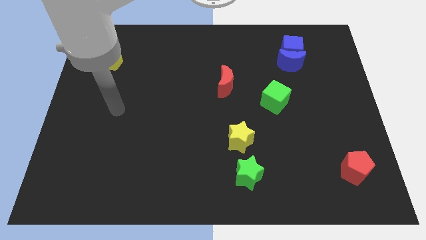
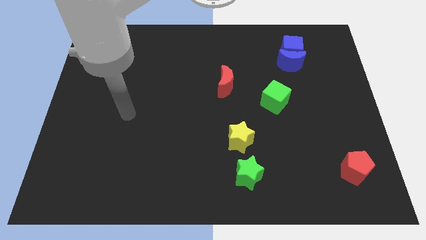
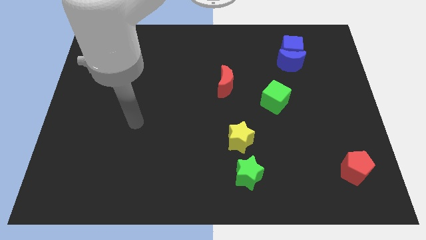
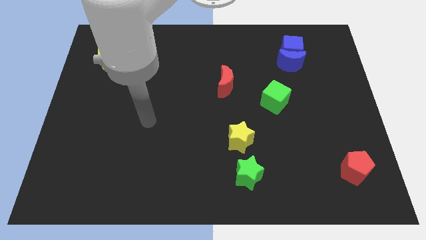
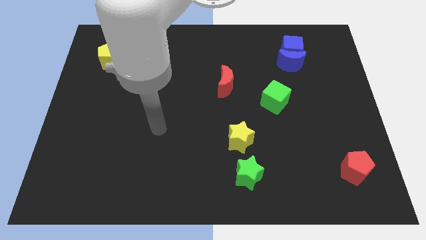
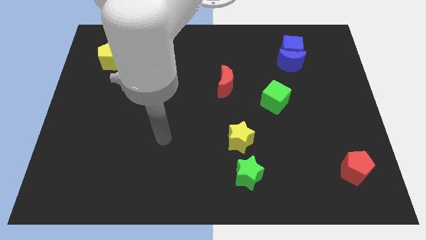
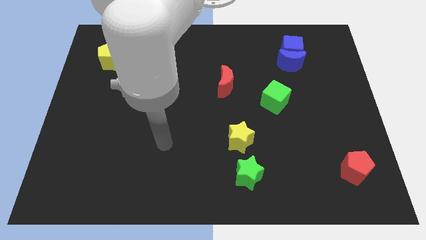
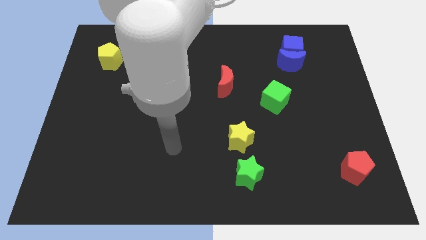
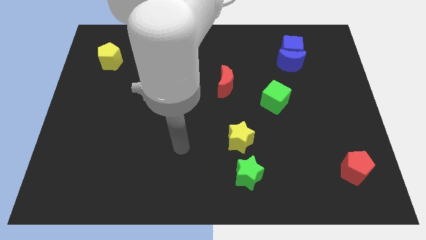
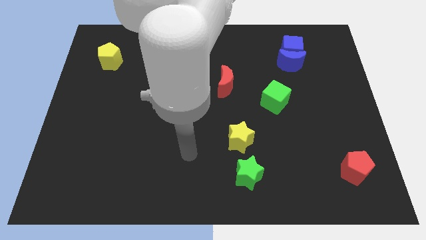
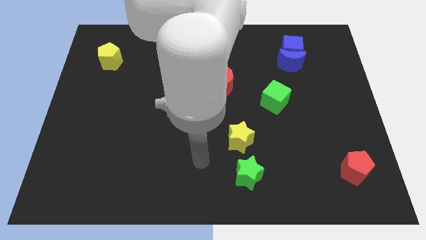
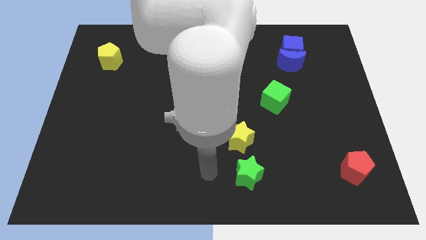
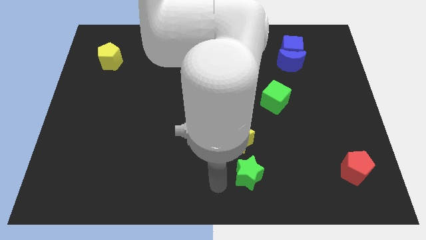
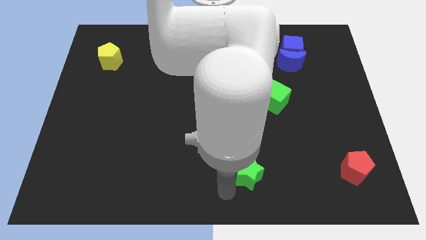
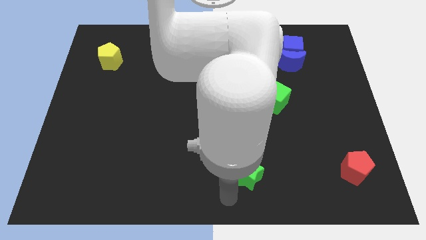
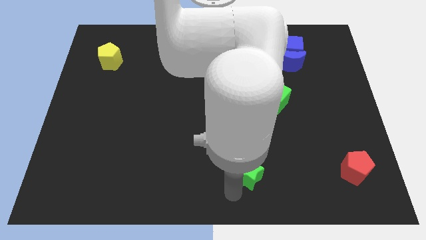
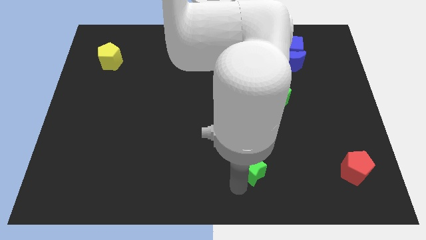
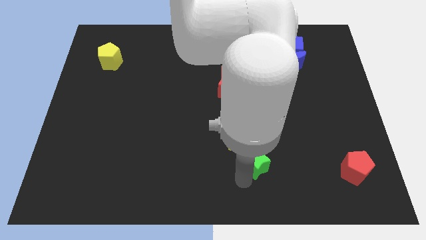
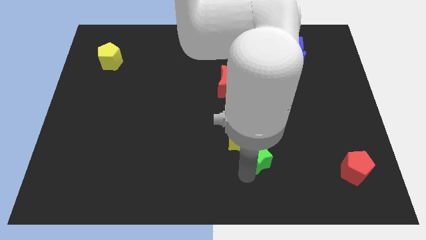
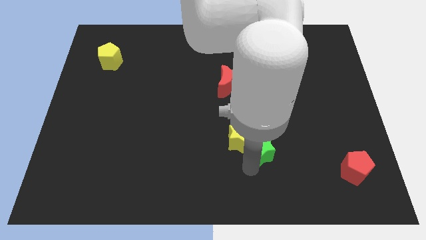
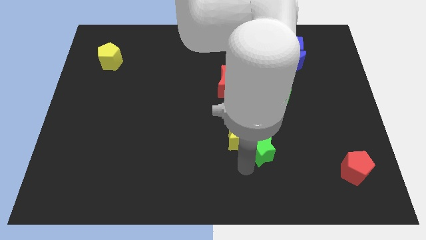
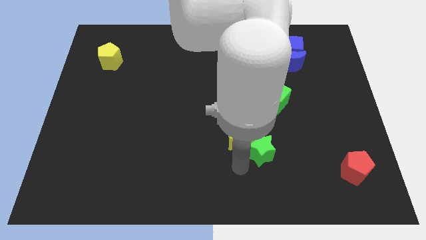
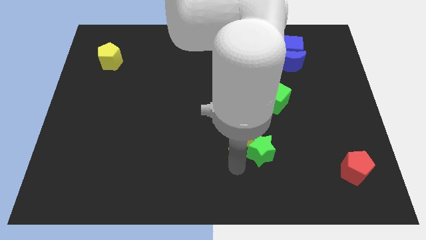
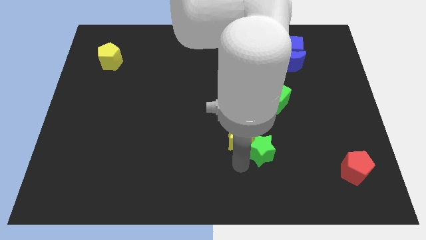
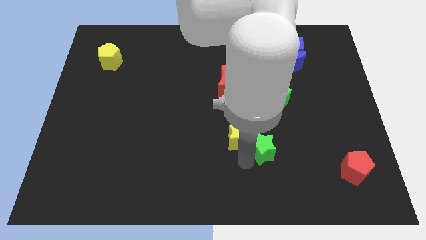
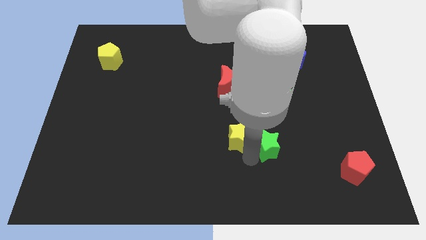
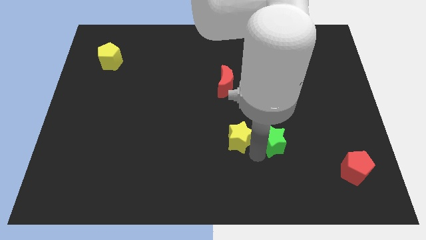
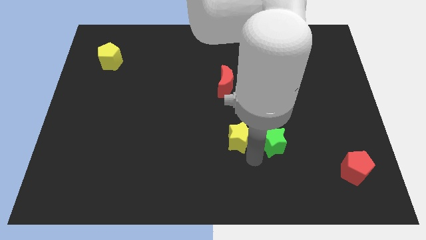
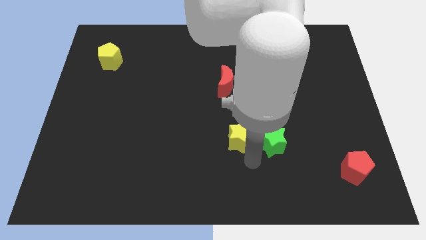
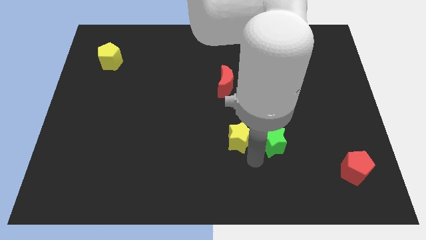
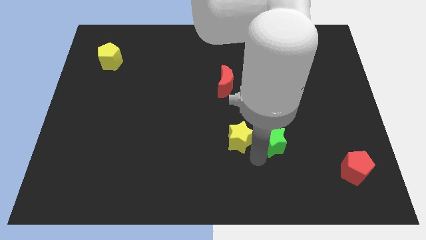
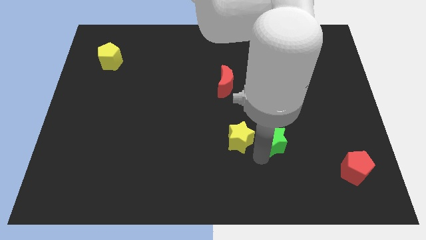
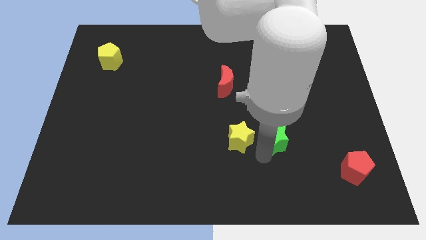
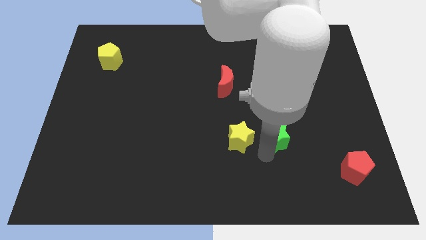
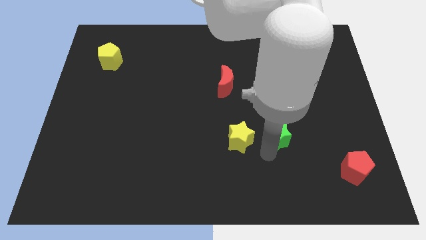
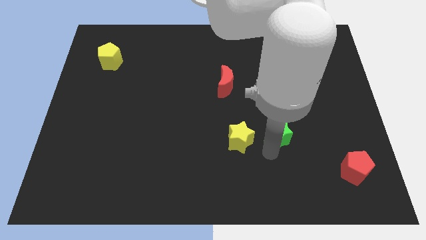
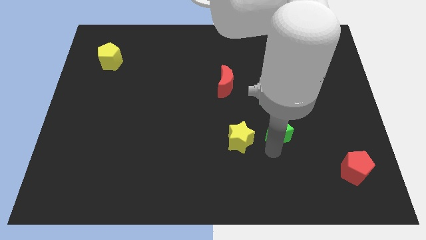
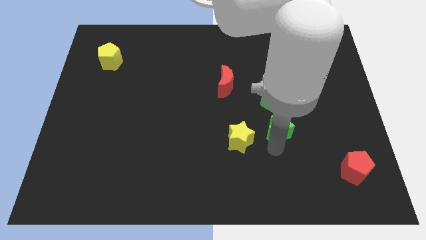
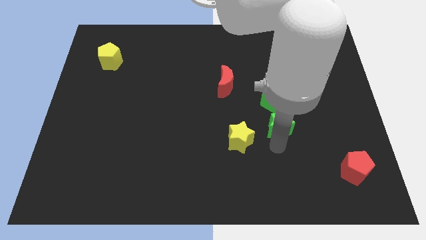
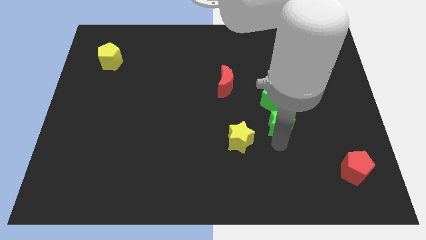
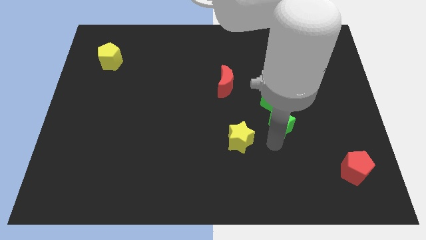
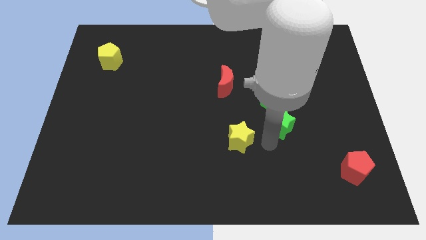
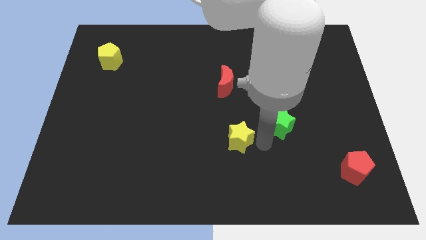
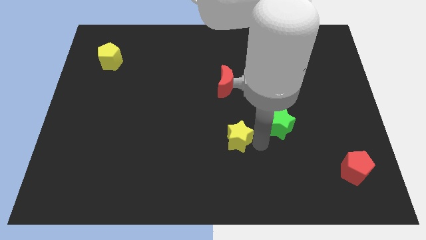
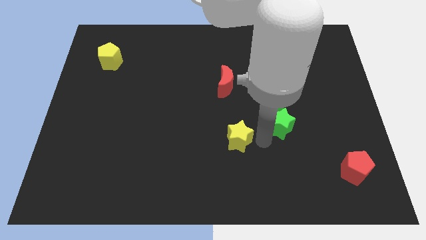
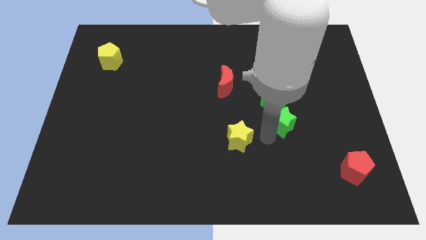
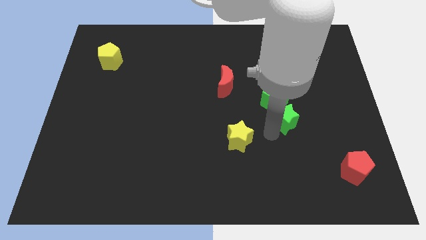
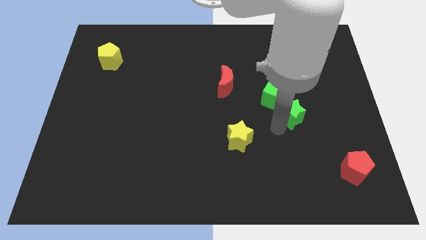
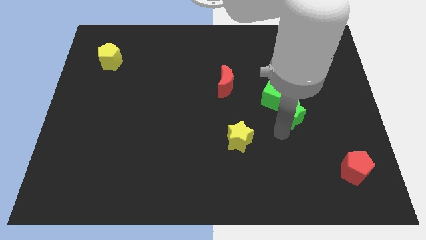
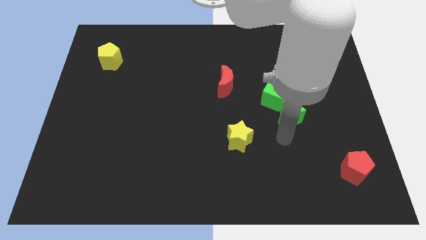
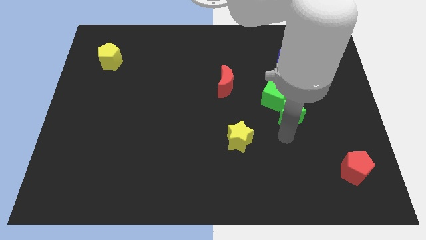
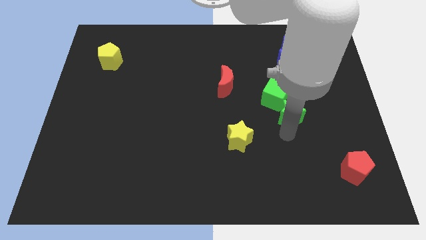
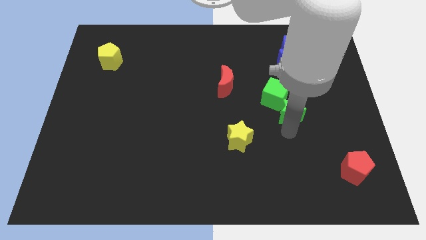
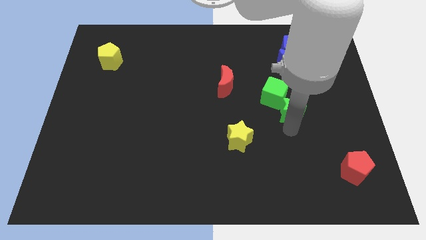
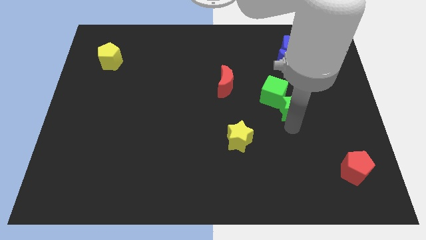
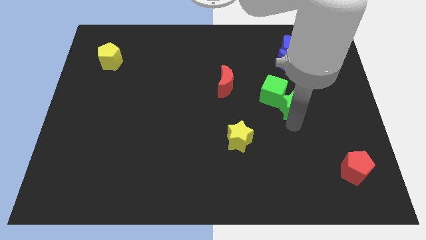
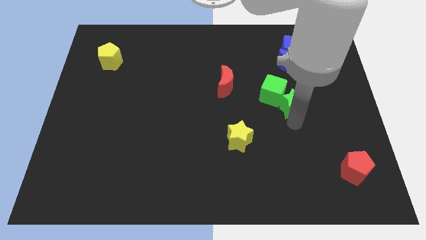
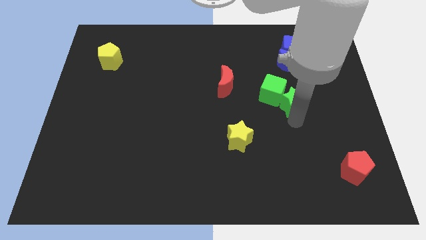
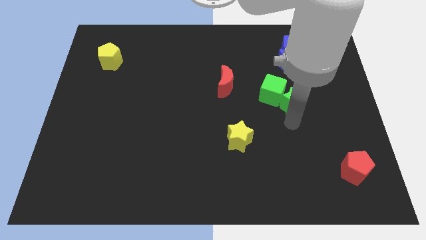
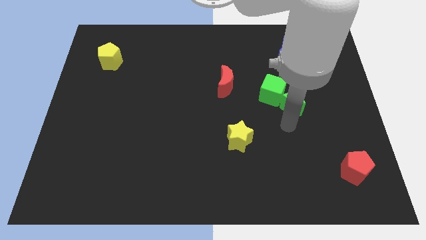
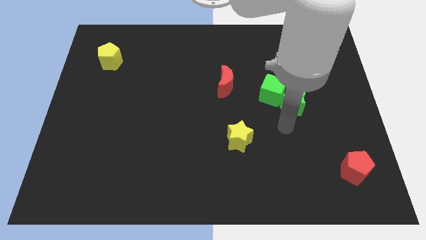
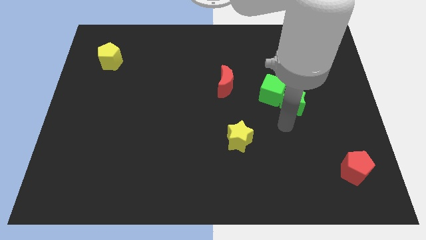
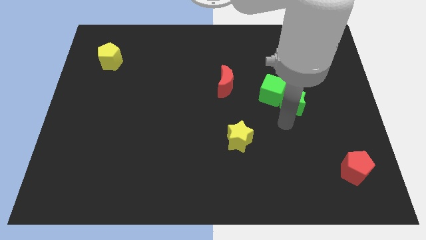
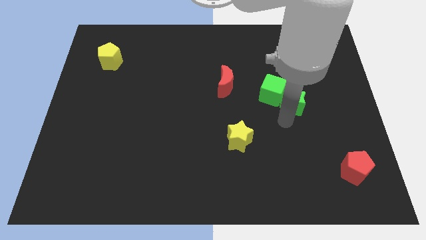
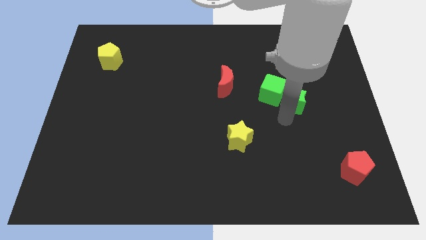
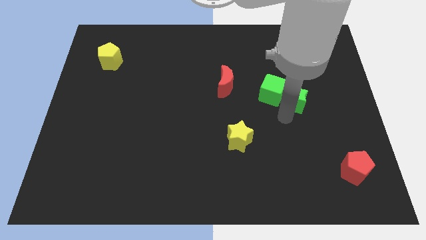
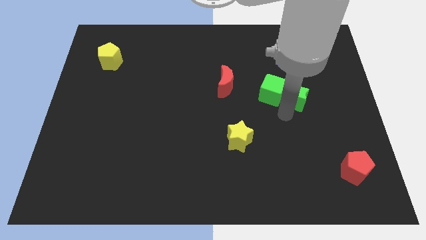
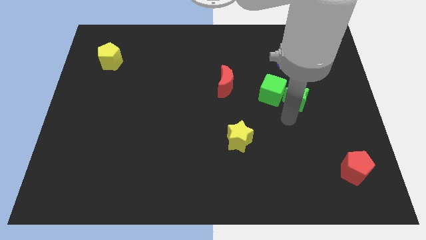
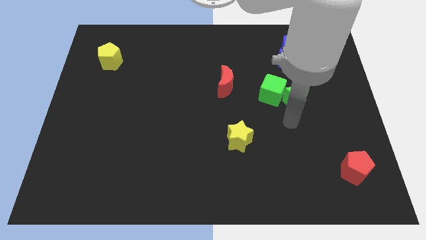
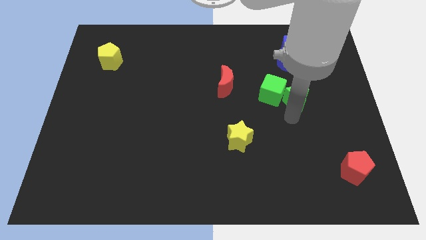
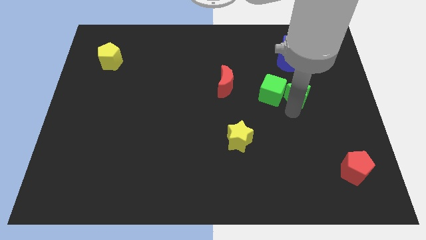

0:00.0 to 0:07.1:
put the green star to the bottom of the blue cube

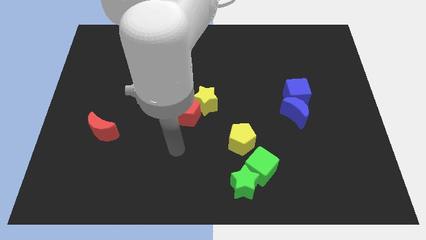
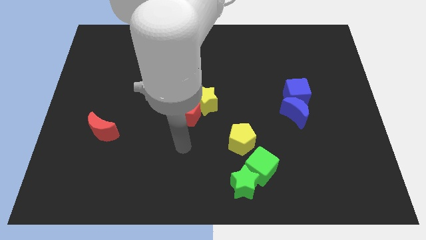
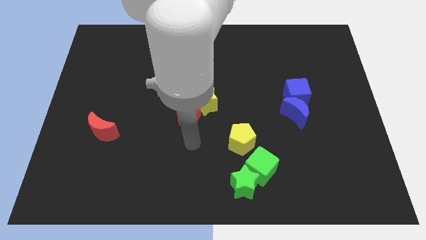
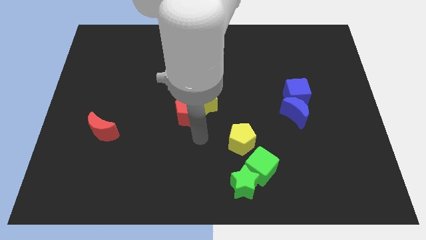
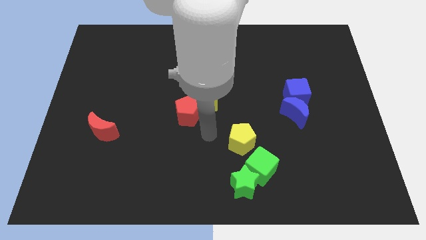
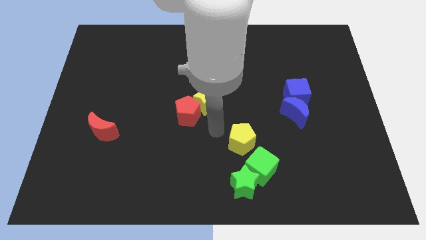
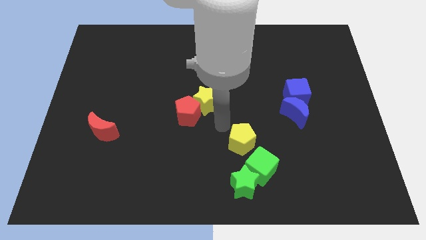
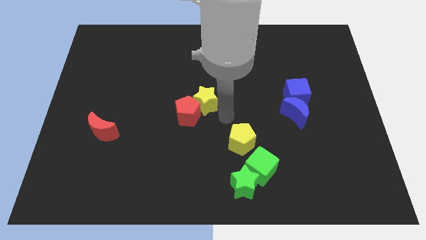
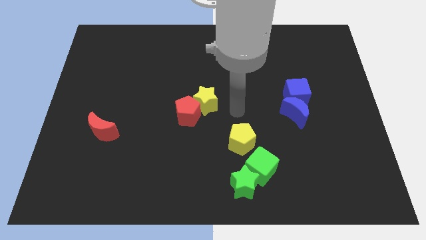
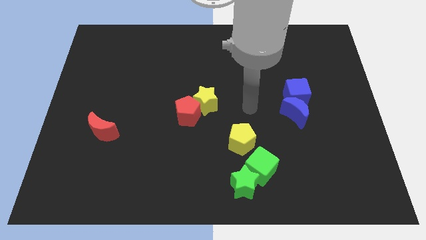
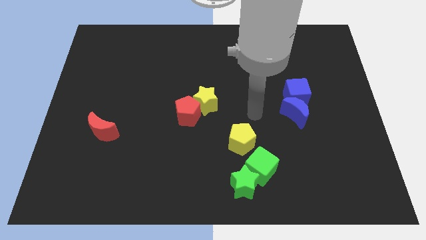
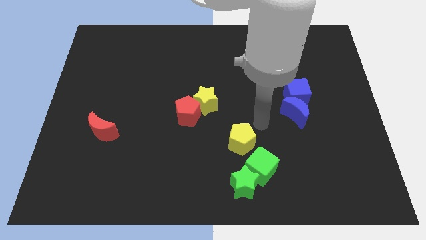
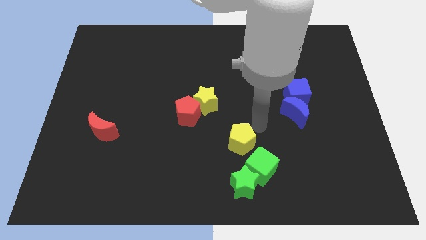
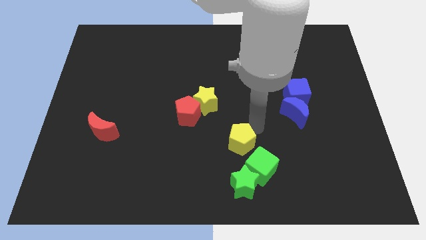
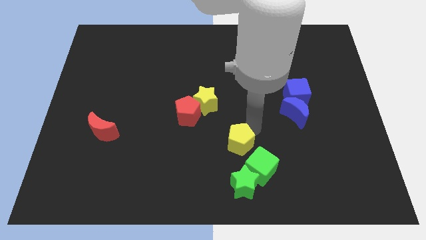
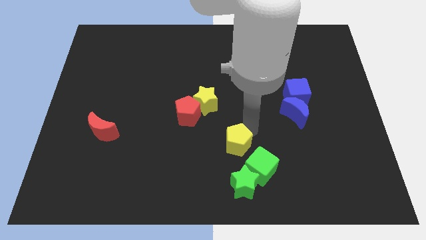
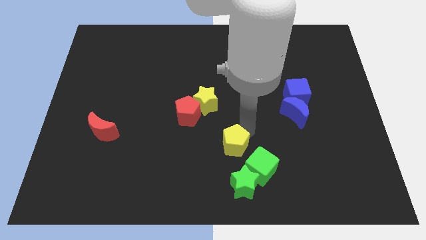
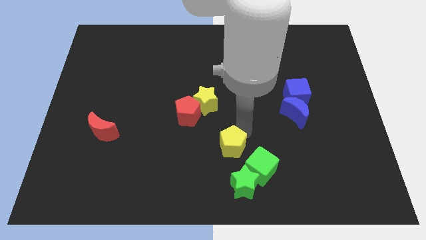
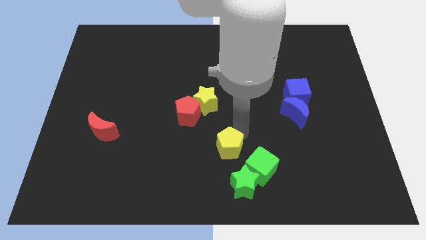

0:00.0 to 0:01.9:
move the yellow pentagon to the top left side of the green star

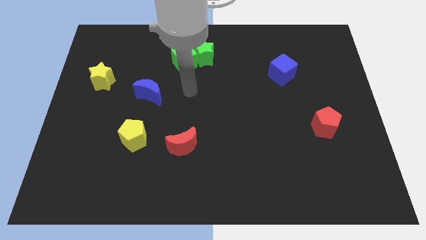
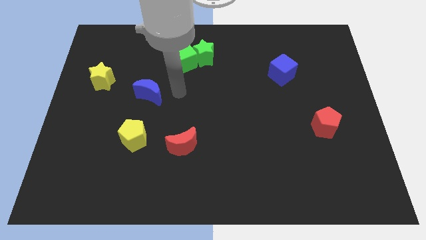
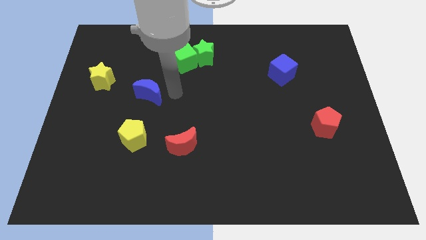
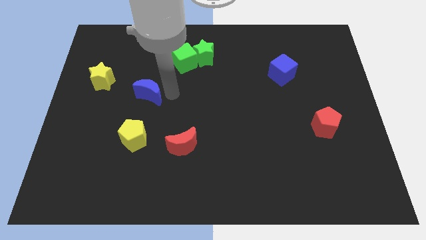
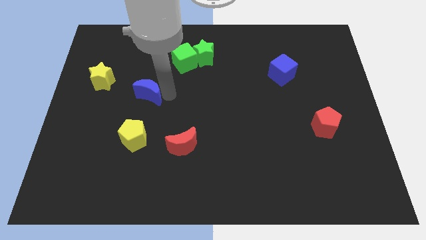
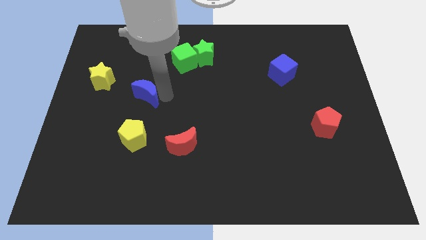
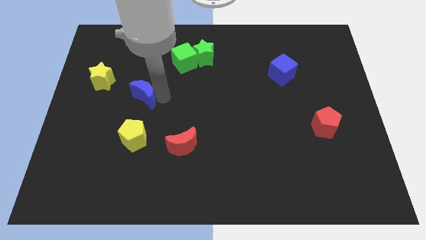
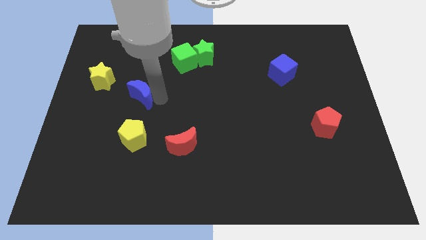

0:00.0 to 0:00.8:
slide the blue moon diagonally down and to the right of the yellow star
